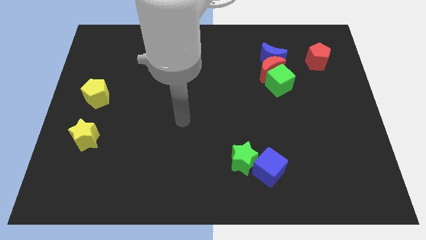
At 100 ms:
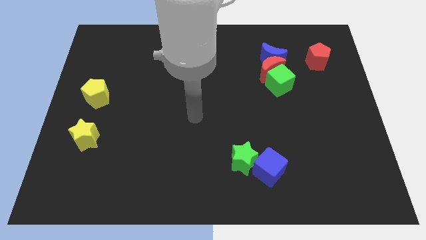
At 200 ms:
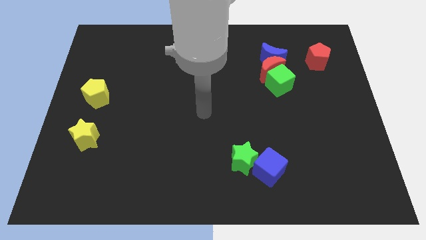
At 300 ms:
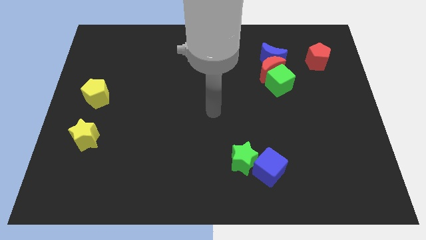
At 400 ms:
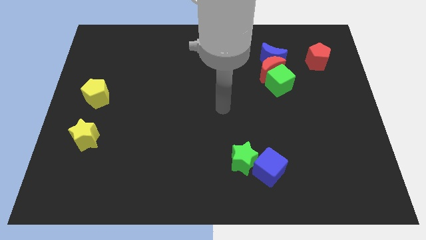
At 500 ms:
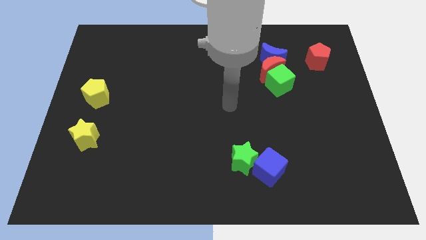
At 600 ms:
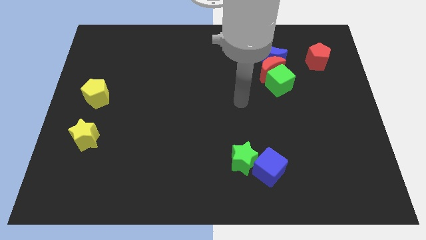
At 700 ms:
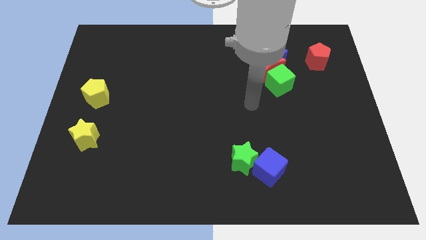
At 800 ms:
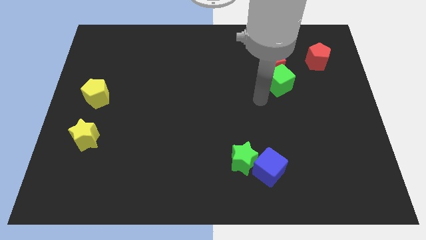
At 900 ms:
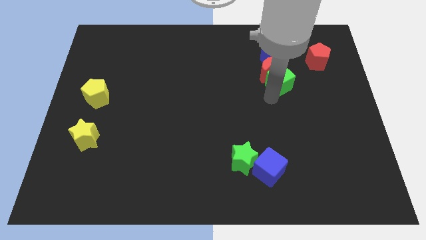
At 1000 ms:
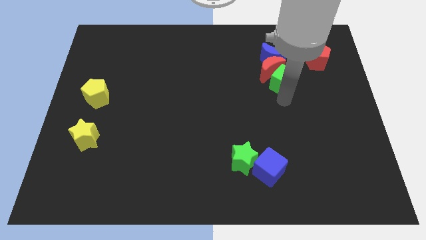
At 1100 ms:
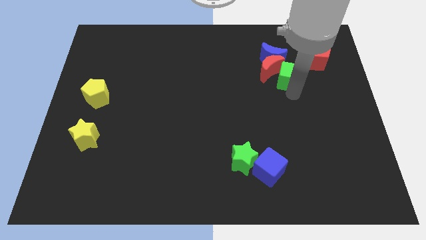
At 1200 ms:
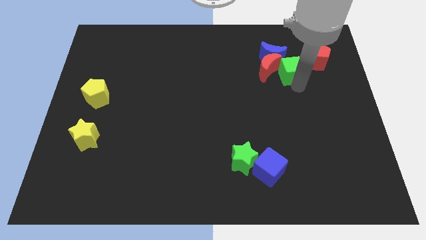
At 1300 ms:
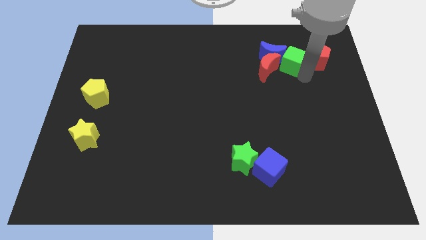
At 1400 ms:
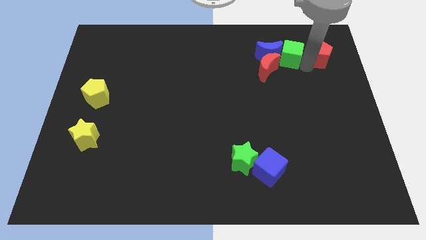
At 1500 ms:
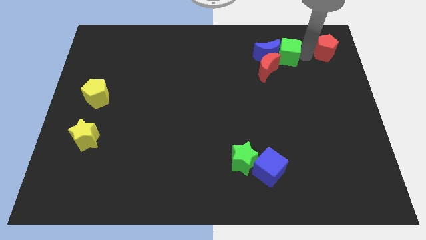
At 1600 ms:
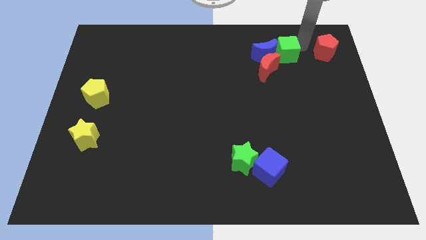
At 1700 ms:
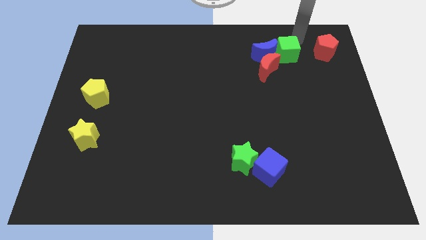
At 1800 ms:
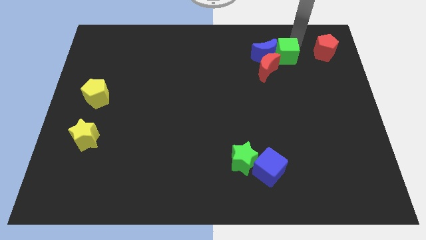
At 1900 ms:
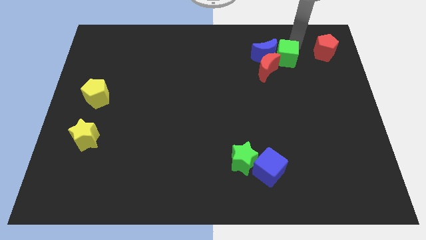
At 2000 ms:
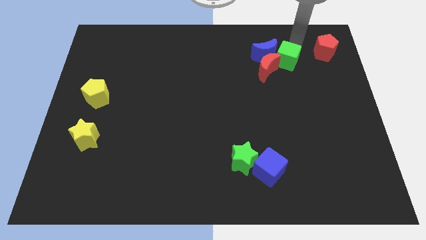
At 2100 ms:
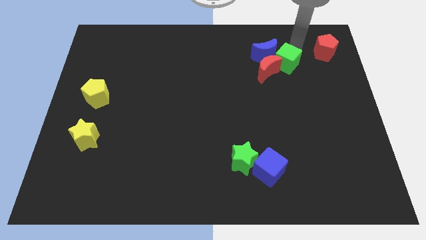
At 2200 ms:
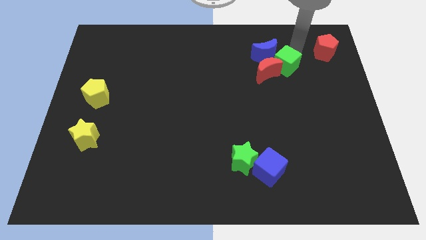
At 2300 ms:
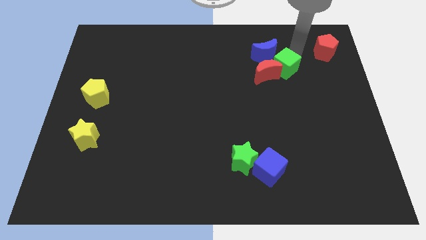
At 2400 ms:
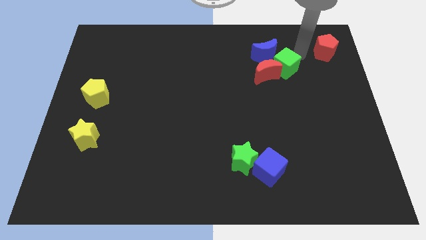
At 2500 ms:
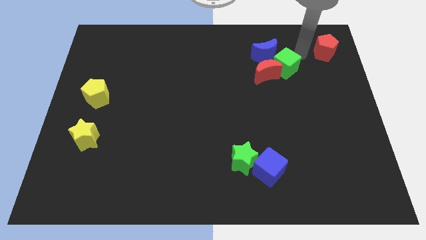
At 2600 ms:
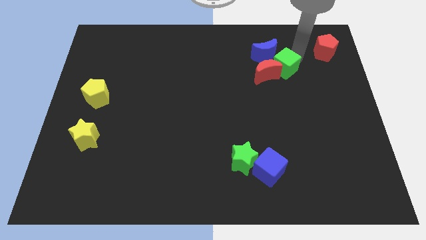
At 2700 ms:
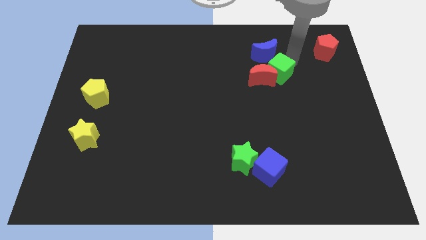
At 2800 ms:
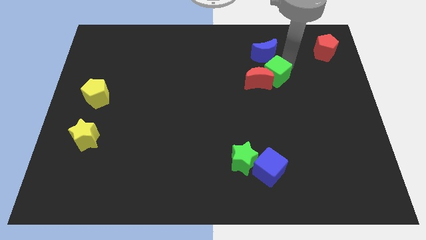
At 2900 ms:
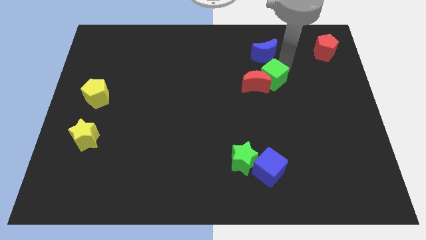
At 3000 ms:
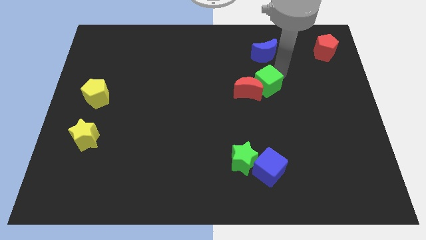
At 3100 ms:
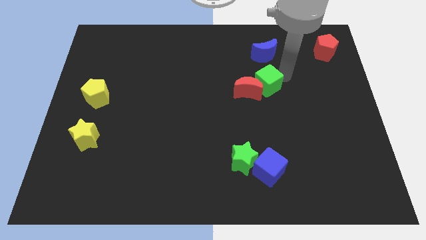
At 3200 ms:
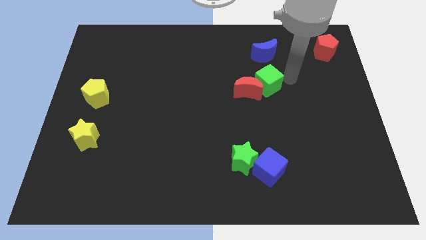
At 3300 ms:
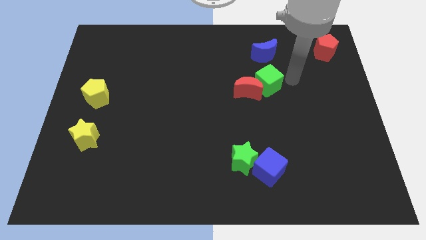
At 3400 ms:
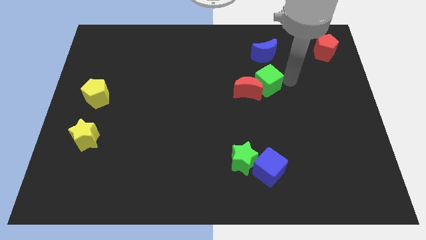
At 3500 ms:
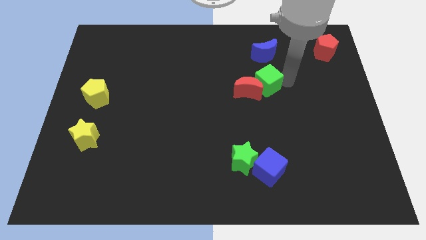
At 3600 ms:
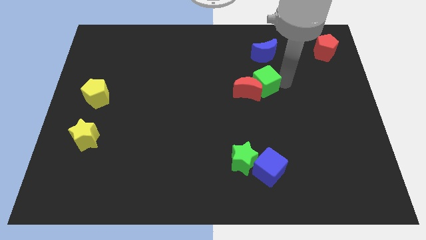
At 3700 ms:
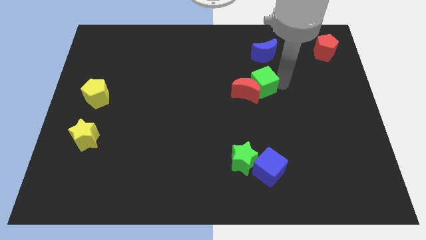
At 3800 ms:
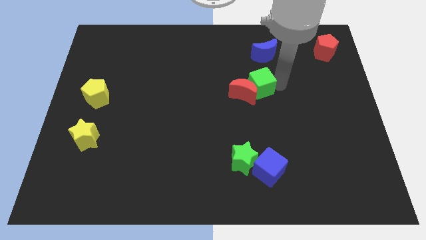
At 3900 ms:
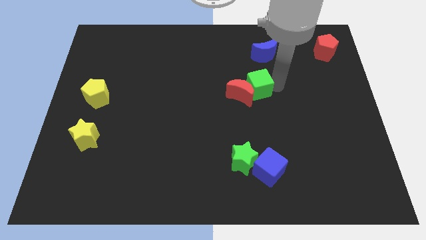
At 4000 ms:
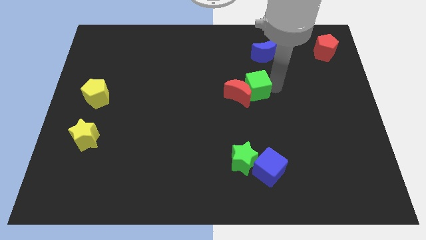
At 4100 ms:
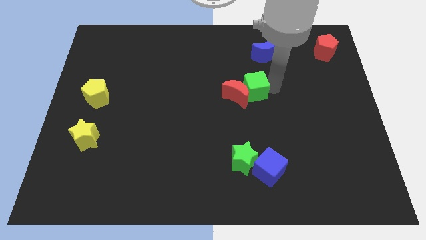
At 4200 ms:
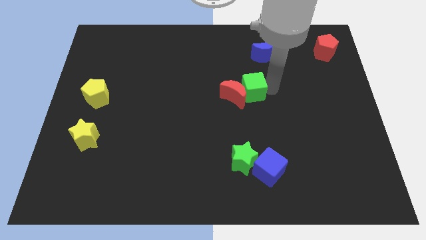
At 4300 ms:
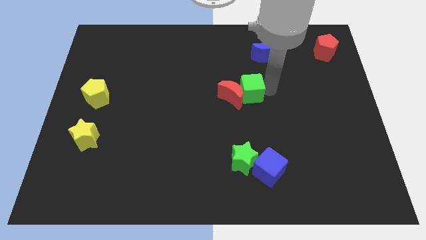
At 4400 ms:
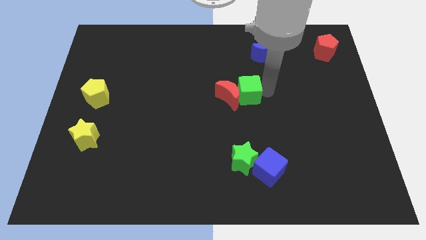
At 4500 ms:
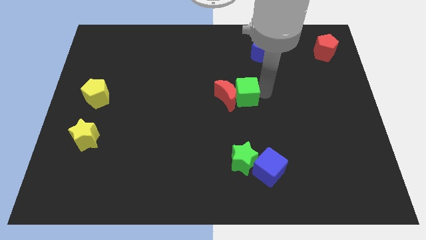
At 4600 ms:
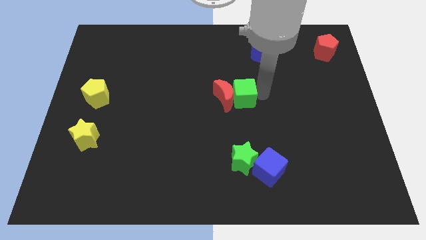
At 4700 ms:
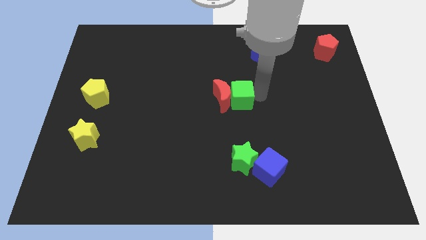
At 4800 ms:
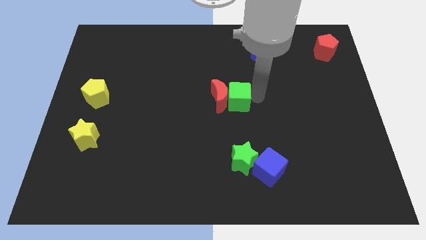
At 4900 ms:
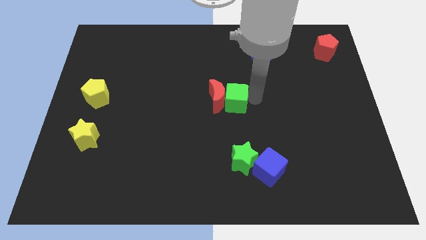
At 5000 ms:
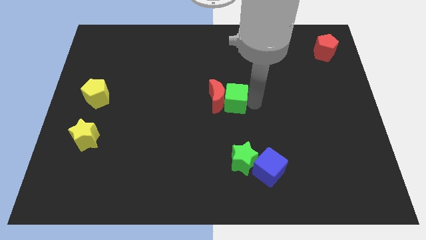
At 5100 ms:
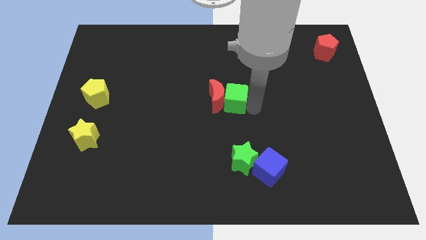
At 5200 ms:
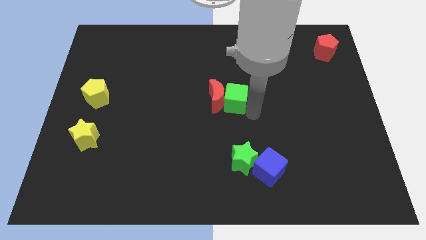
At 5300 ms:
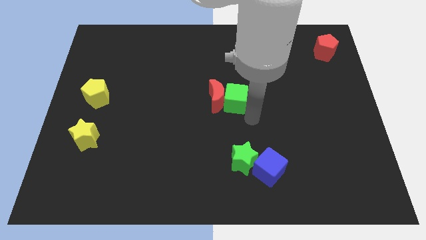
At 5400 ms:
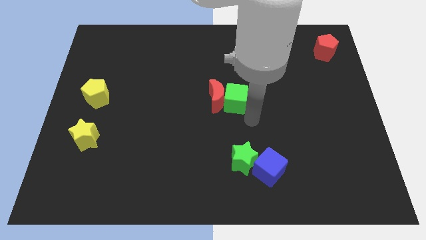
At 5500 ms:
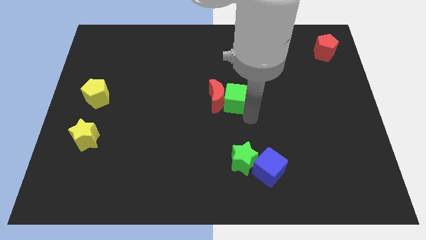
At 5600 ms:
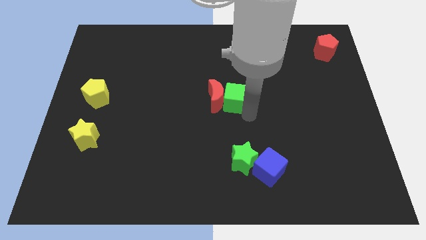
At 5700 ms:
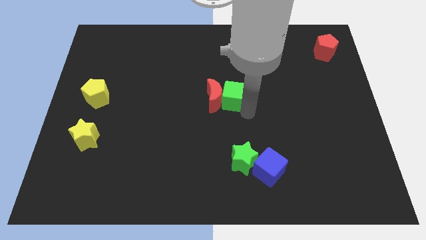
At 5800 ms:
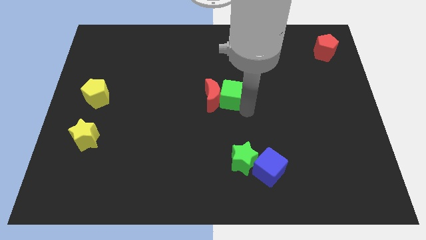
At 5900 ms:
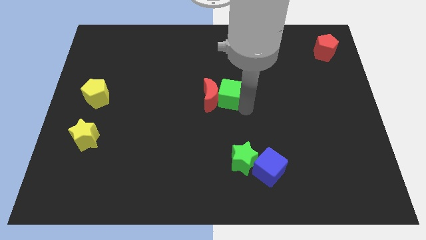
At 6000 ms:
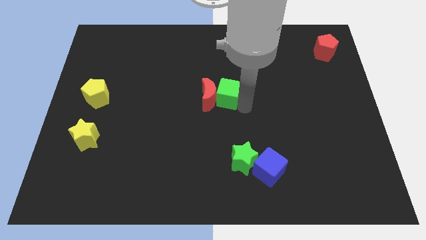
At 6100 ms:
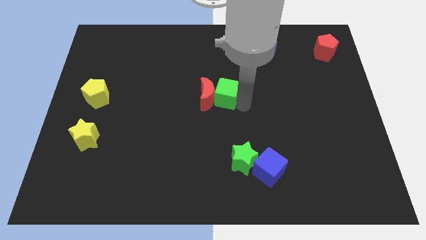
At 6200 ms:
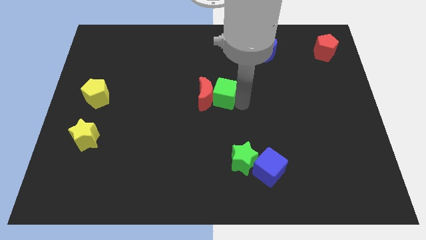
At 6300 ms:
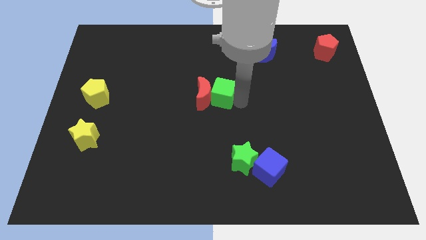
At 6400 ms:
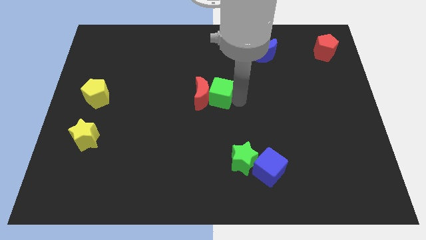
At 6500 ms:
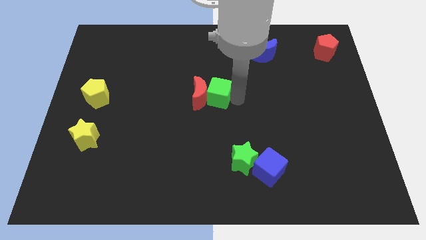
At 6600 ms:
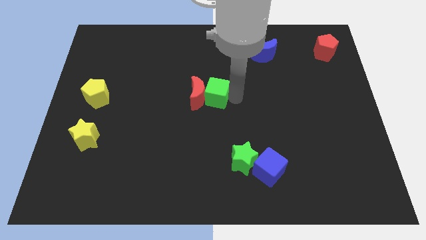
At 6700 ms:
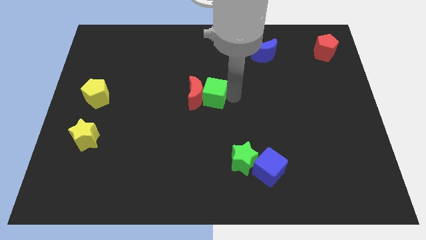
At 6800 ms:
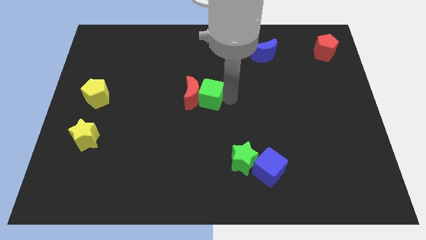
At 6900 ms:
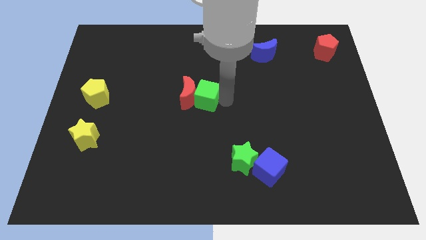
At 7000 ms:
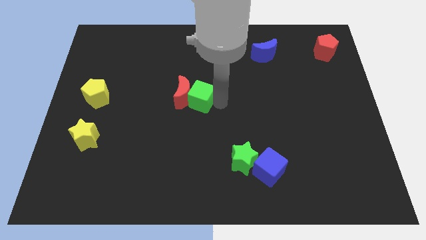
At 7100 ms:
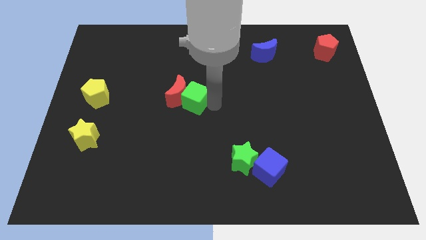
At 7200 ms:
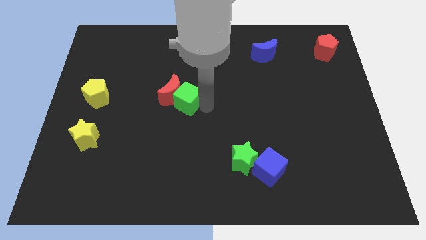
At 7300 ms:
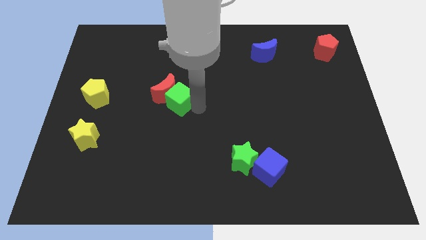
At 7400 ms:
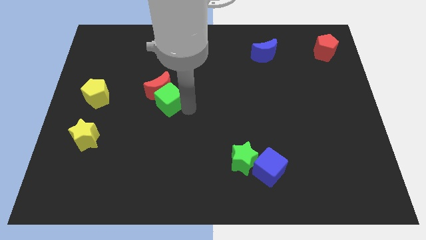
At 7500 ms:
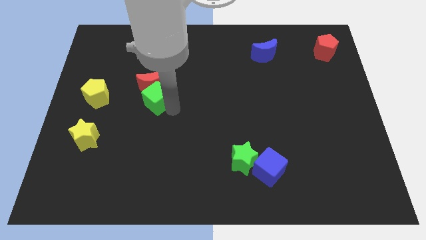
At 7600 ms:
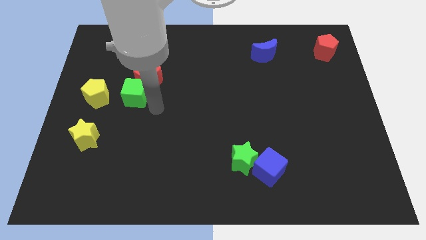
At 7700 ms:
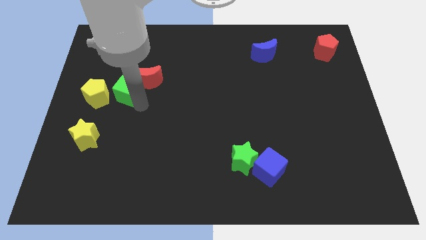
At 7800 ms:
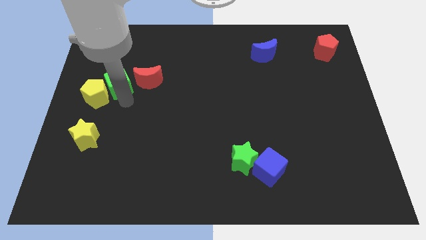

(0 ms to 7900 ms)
push the green cube next to the yellow pentagon
